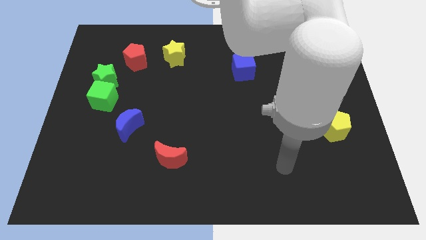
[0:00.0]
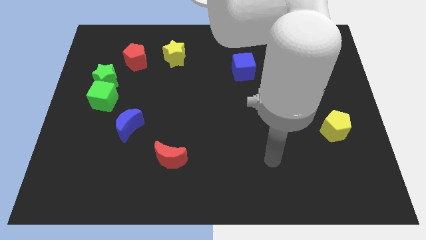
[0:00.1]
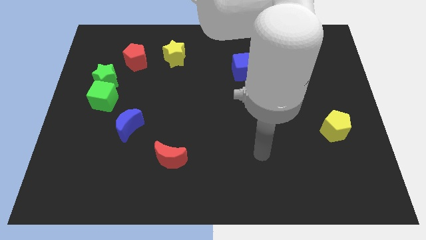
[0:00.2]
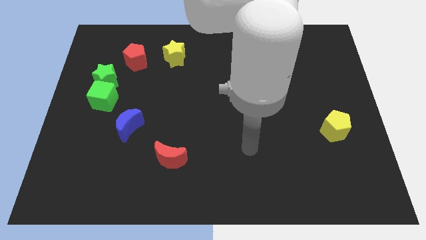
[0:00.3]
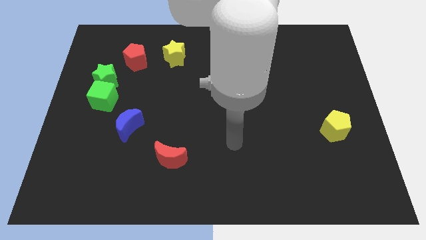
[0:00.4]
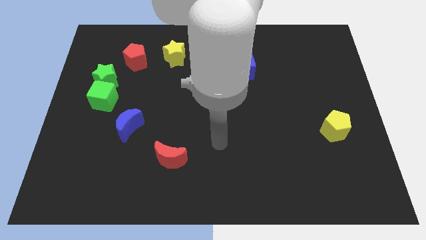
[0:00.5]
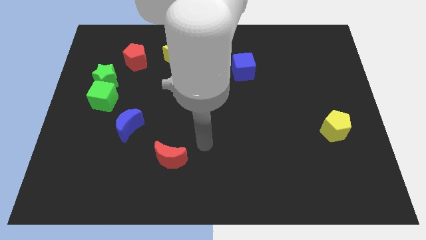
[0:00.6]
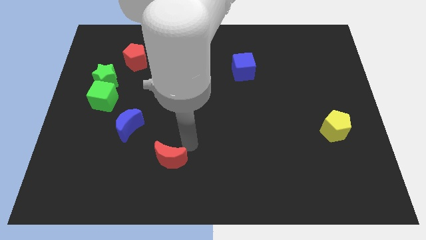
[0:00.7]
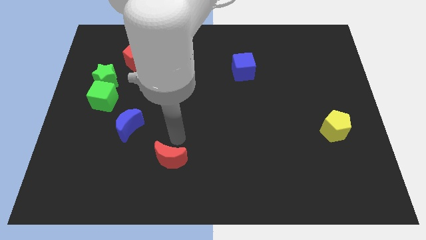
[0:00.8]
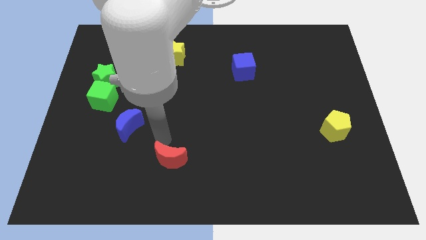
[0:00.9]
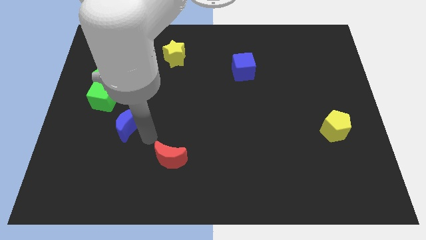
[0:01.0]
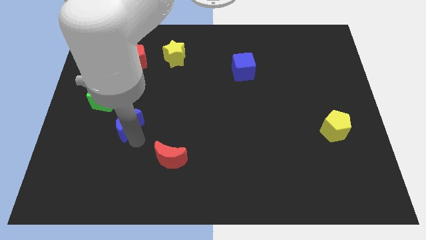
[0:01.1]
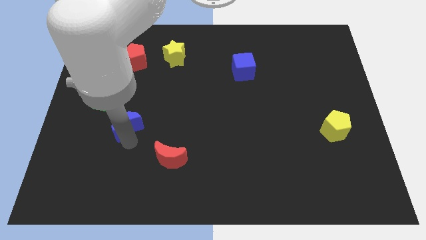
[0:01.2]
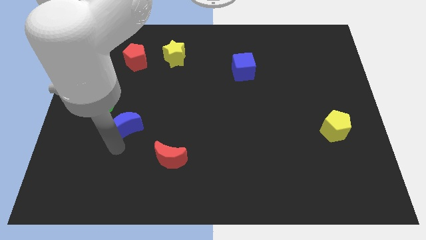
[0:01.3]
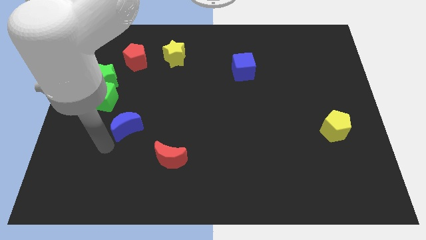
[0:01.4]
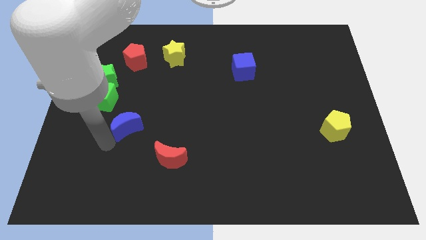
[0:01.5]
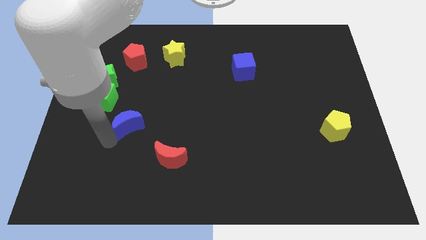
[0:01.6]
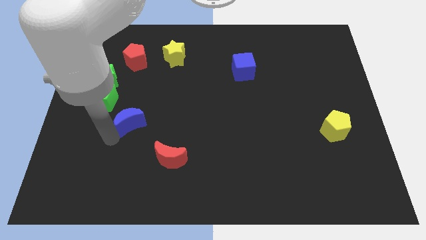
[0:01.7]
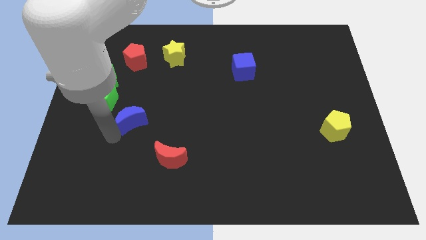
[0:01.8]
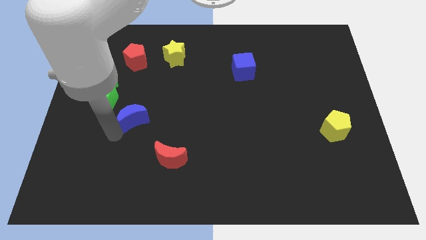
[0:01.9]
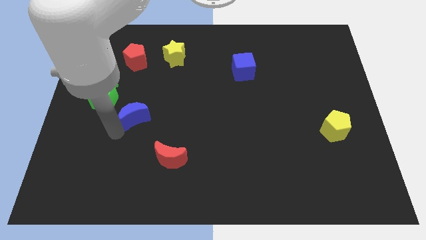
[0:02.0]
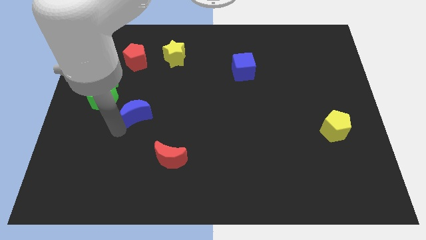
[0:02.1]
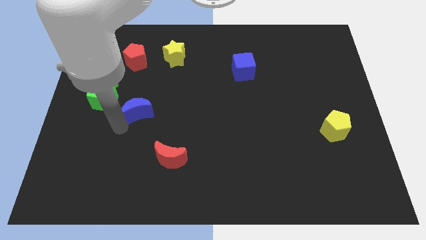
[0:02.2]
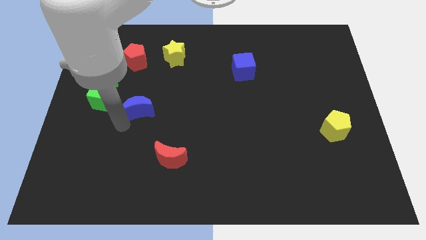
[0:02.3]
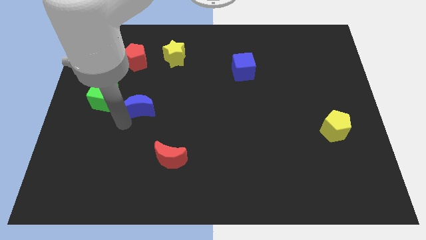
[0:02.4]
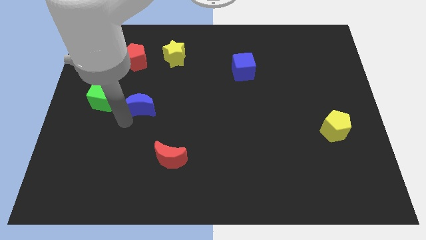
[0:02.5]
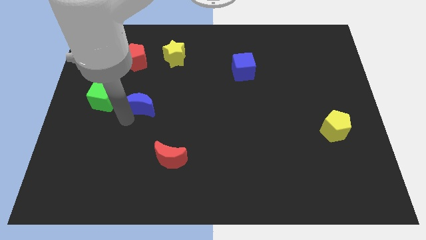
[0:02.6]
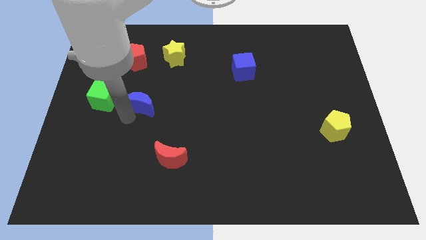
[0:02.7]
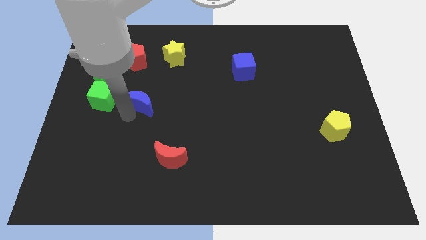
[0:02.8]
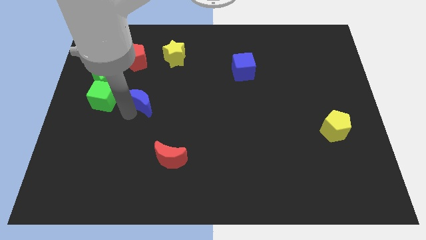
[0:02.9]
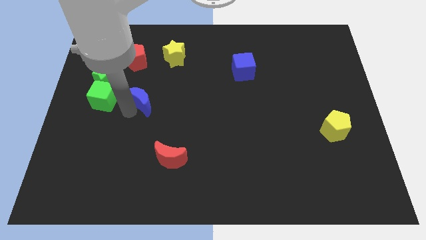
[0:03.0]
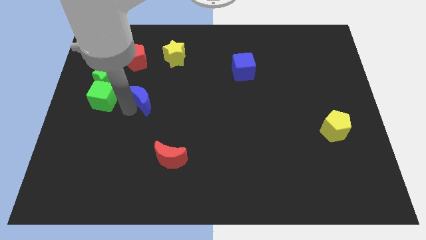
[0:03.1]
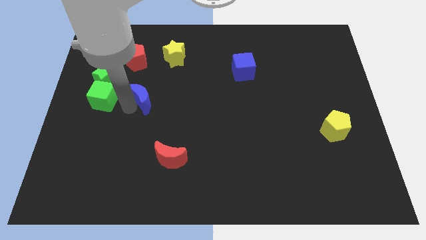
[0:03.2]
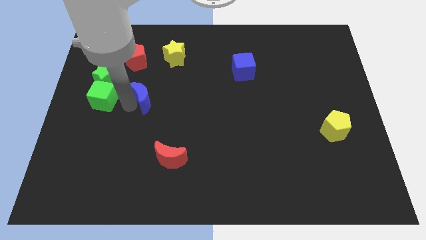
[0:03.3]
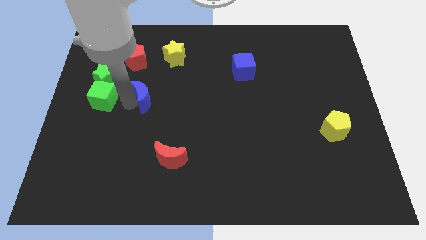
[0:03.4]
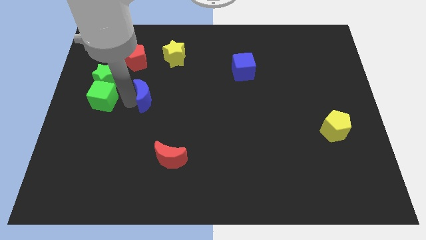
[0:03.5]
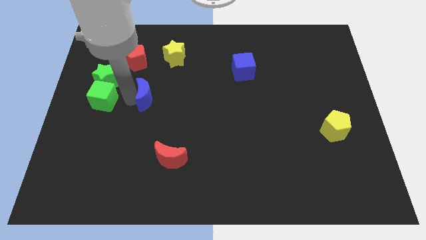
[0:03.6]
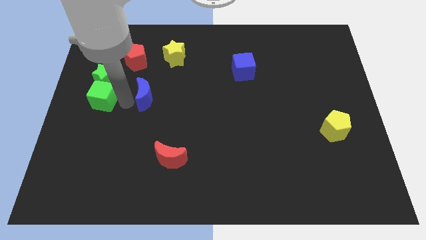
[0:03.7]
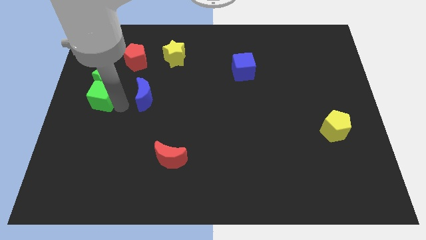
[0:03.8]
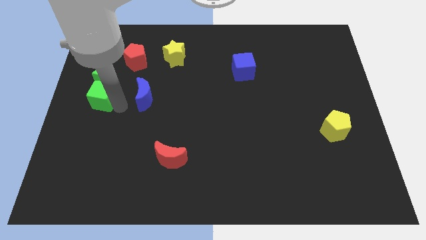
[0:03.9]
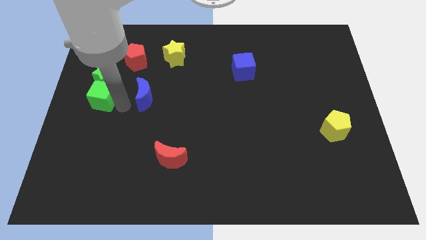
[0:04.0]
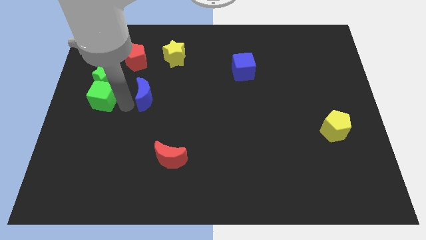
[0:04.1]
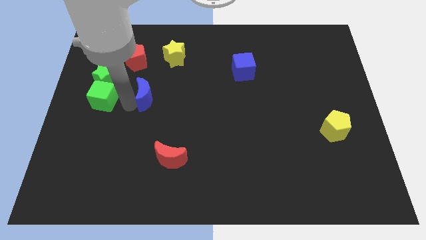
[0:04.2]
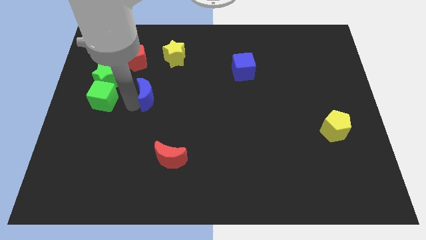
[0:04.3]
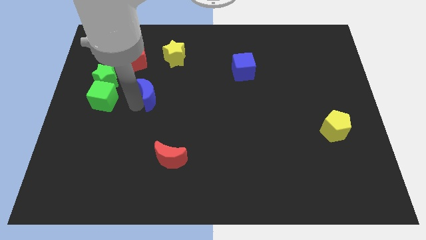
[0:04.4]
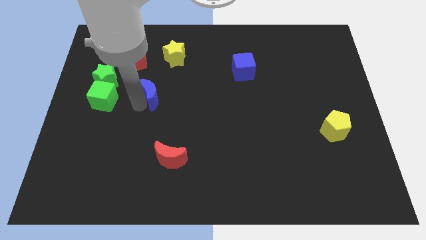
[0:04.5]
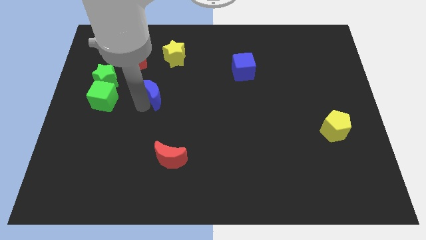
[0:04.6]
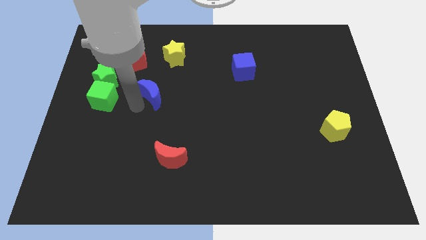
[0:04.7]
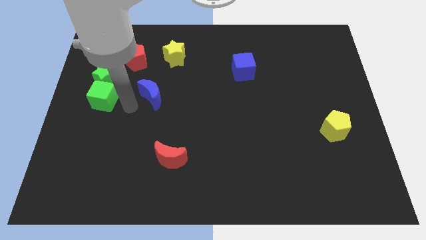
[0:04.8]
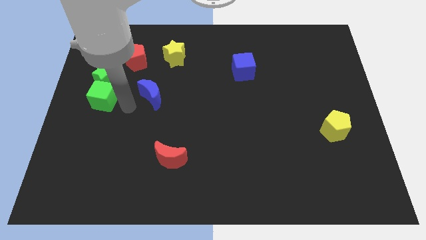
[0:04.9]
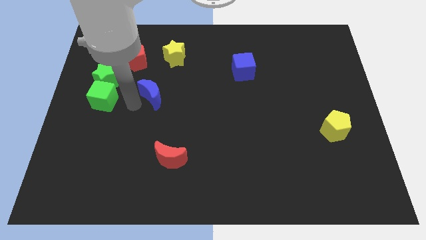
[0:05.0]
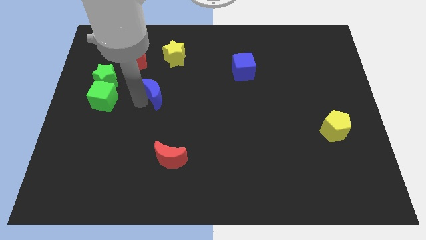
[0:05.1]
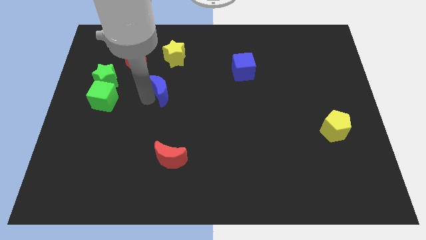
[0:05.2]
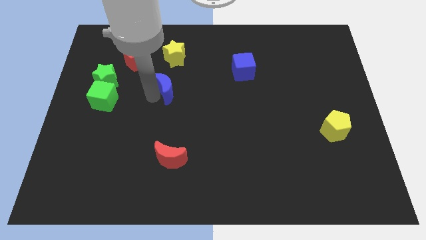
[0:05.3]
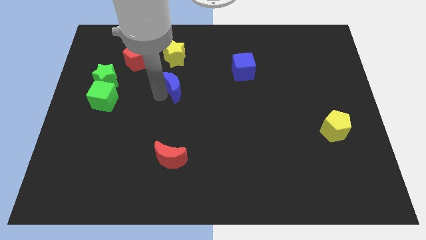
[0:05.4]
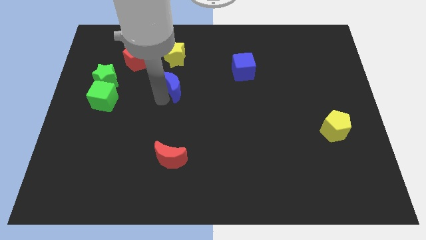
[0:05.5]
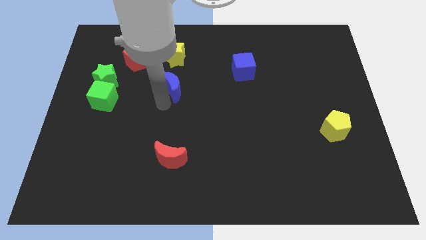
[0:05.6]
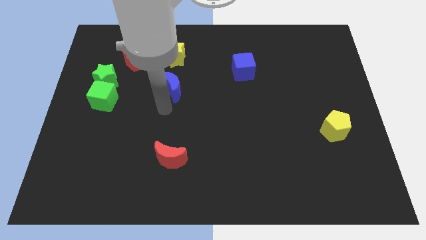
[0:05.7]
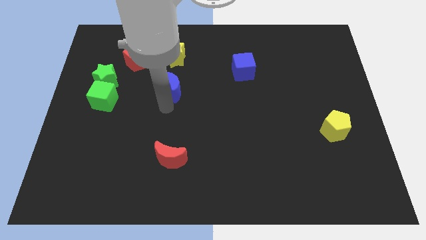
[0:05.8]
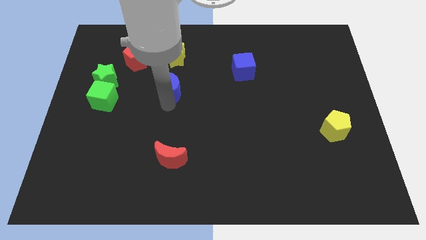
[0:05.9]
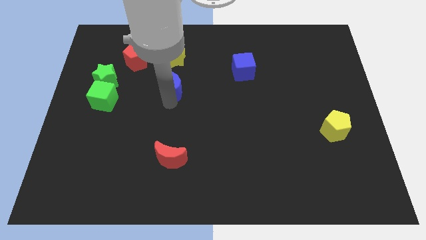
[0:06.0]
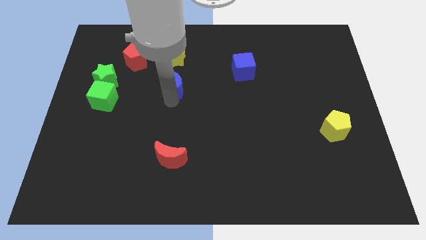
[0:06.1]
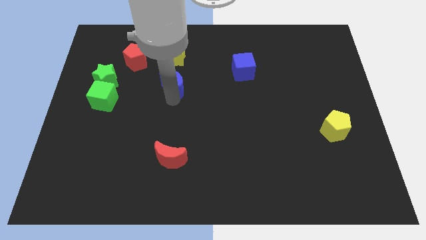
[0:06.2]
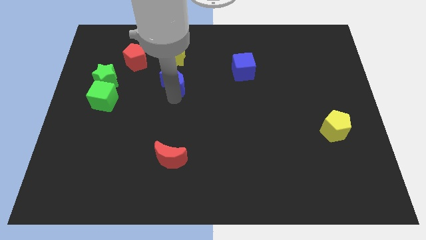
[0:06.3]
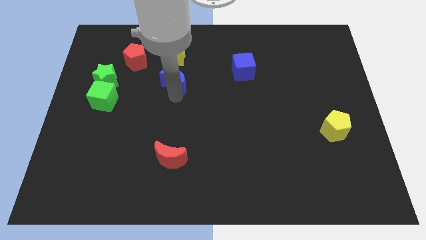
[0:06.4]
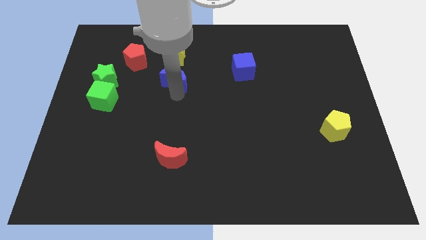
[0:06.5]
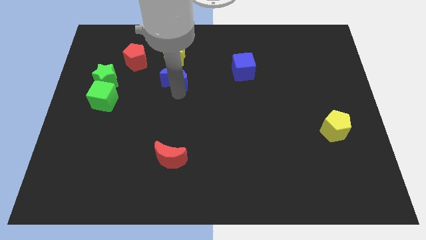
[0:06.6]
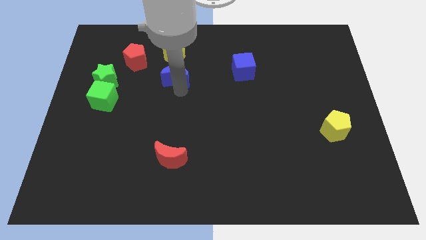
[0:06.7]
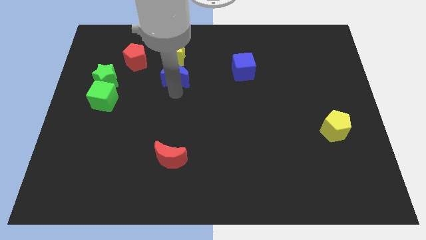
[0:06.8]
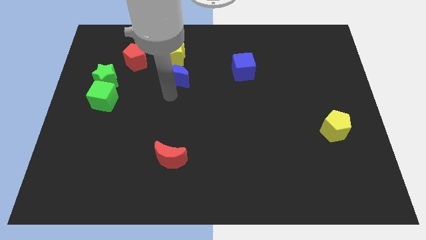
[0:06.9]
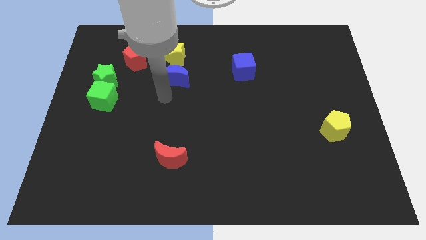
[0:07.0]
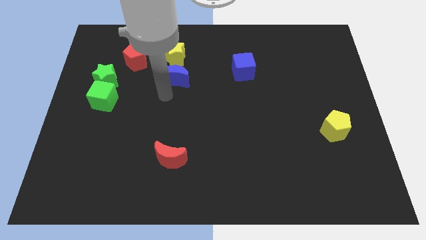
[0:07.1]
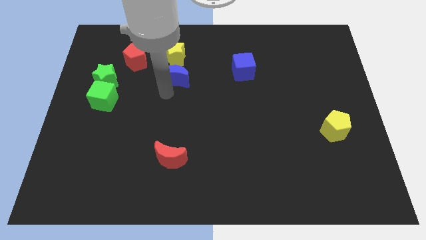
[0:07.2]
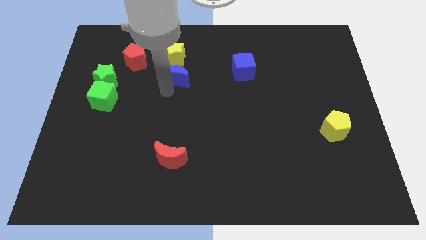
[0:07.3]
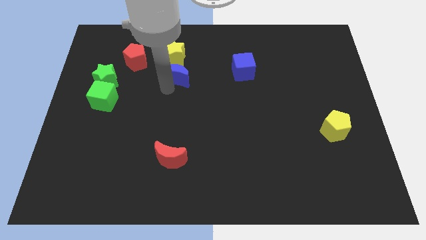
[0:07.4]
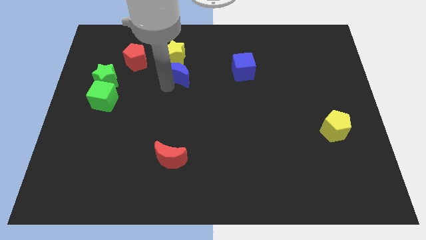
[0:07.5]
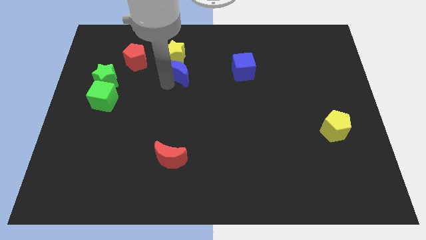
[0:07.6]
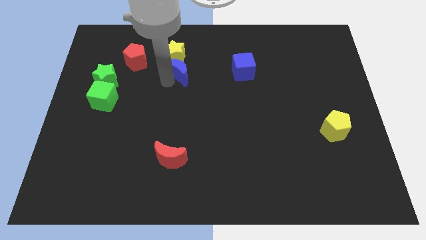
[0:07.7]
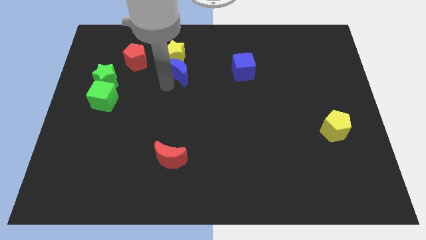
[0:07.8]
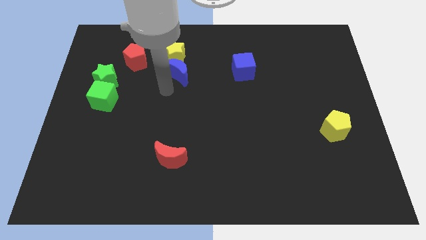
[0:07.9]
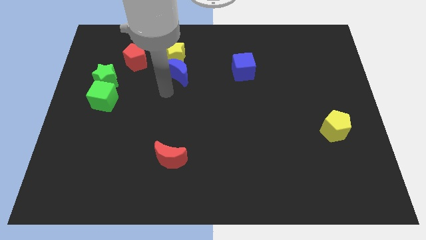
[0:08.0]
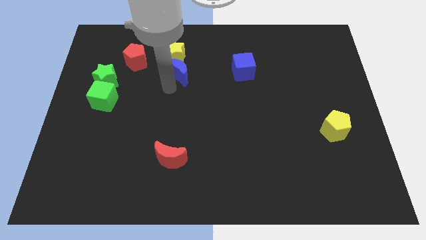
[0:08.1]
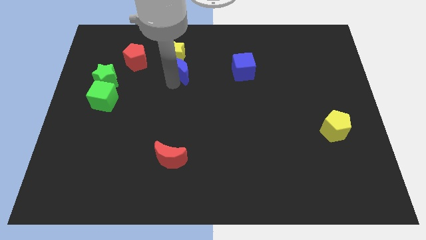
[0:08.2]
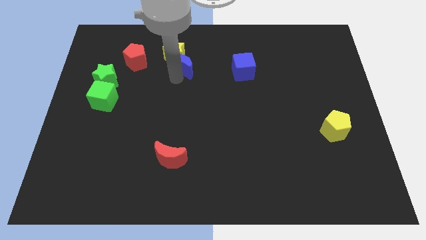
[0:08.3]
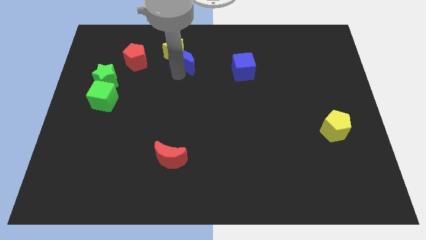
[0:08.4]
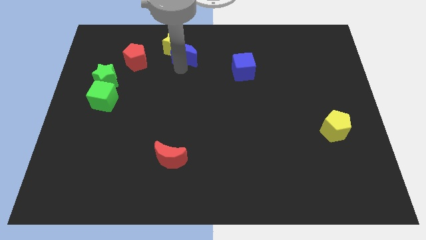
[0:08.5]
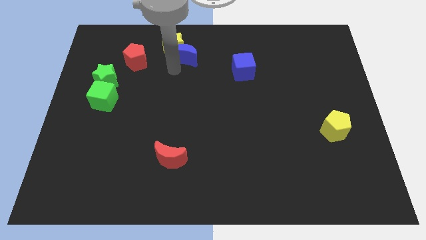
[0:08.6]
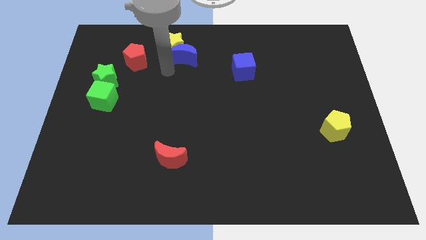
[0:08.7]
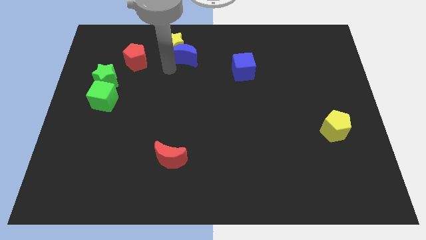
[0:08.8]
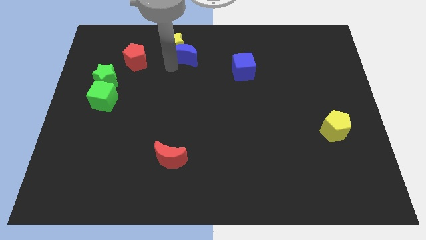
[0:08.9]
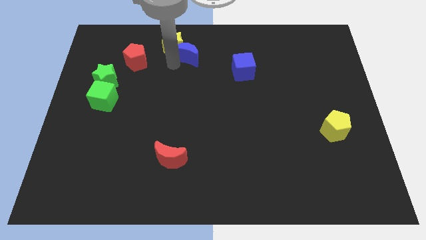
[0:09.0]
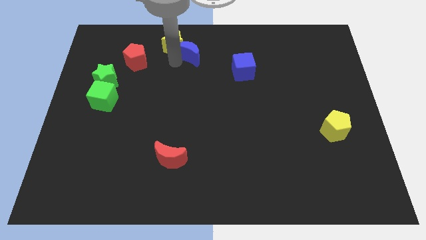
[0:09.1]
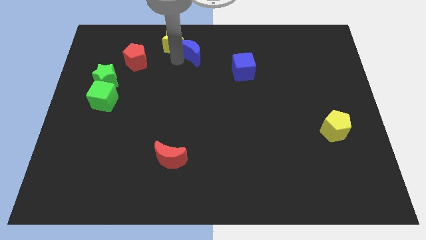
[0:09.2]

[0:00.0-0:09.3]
push the blue moon to the top side
